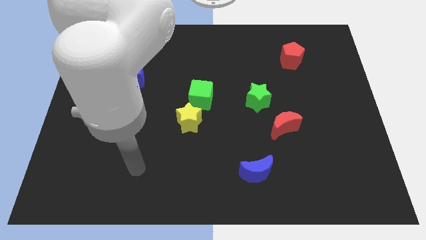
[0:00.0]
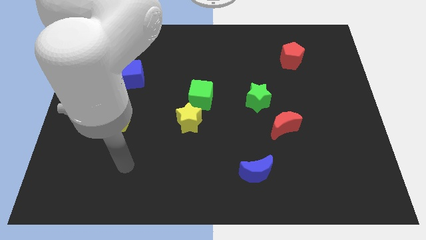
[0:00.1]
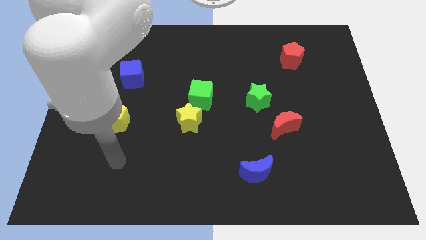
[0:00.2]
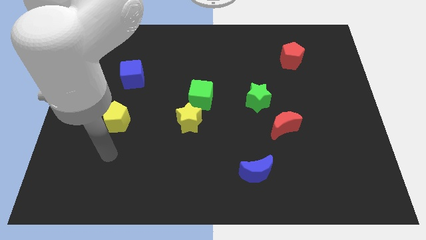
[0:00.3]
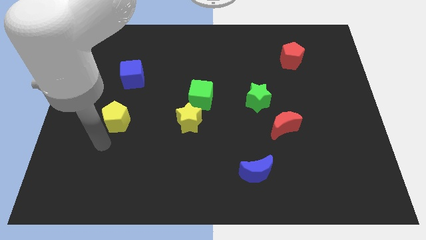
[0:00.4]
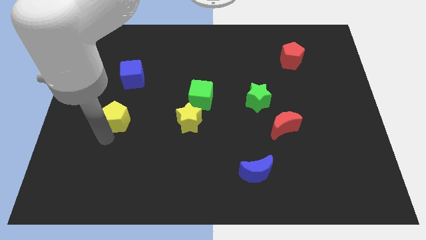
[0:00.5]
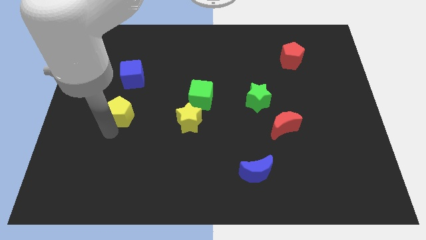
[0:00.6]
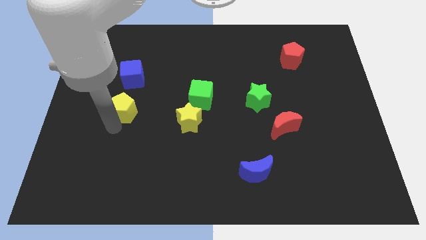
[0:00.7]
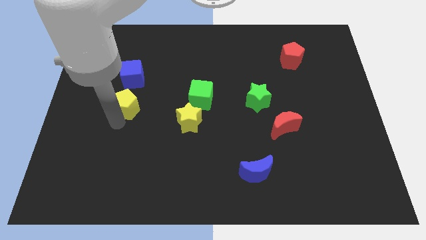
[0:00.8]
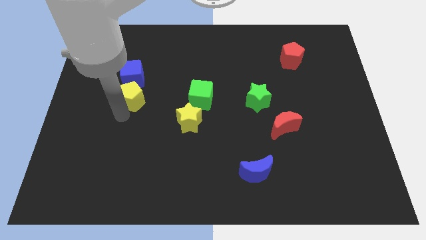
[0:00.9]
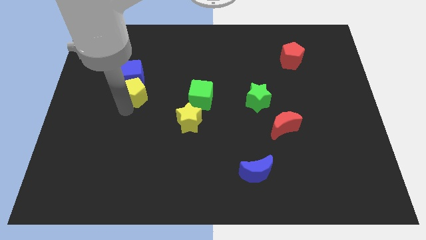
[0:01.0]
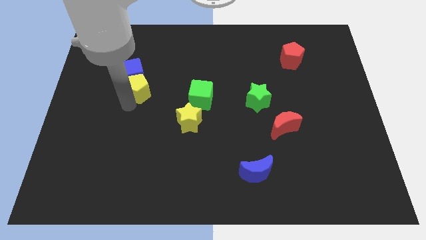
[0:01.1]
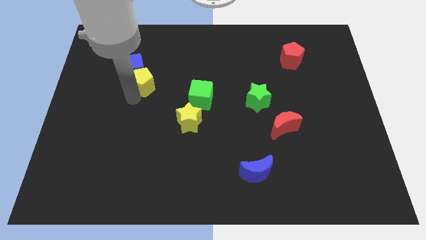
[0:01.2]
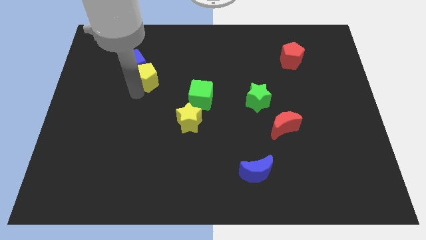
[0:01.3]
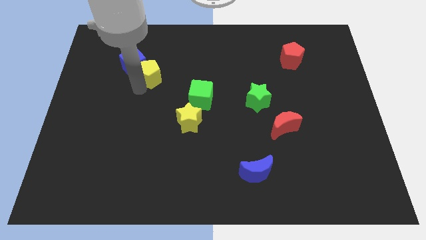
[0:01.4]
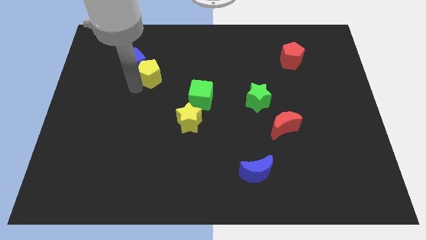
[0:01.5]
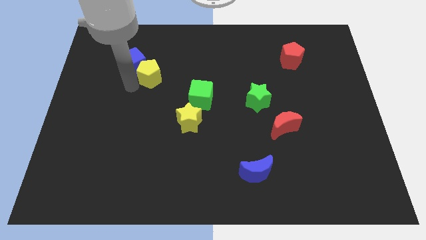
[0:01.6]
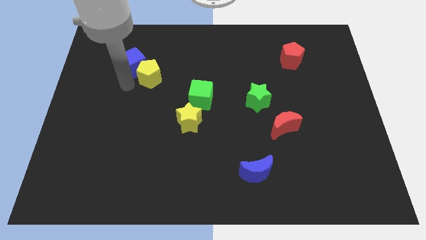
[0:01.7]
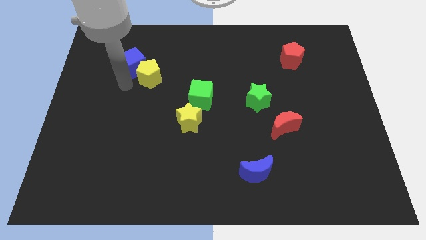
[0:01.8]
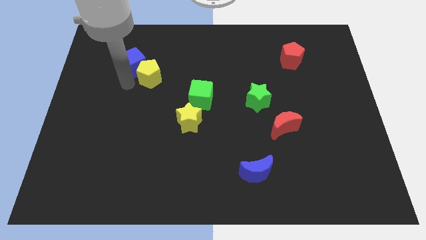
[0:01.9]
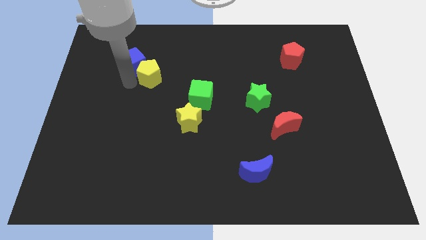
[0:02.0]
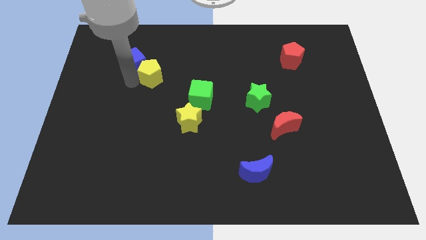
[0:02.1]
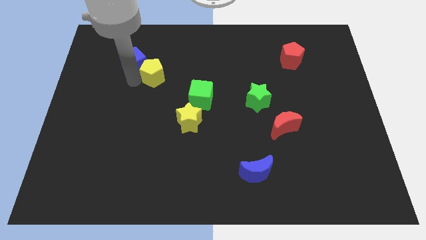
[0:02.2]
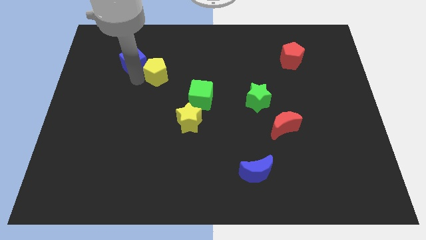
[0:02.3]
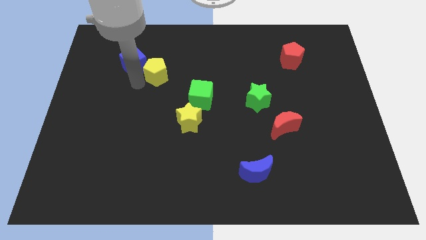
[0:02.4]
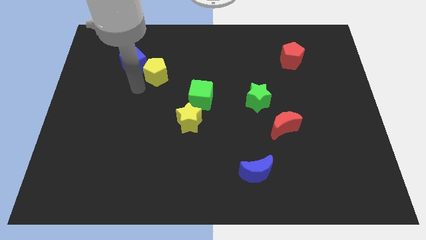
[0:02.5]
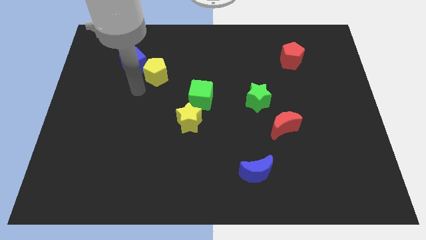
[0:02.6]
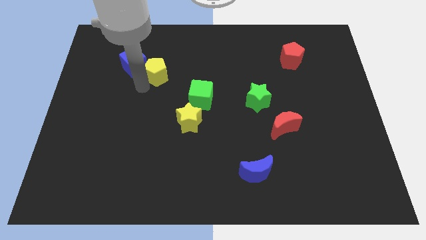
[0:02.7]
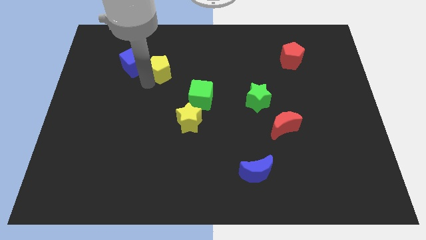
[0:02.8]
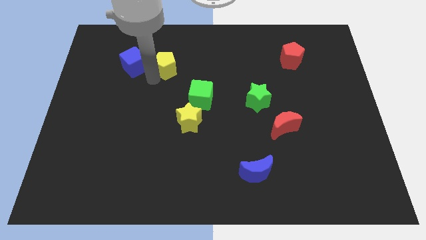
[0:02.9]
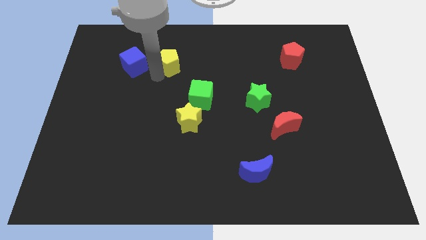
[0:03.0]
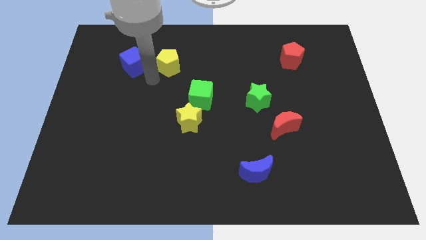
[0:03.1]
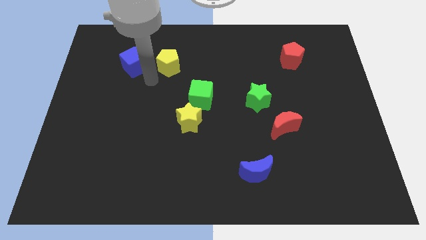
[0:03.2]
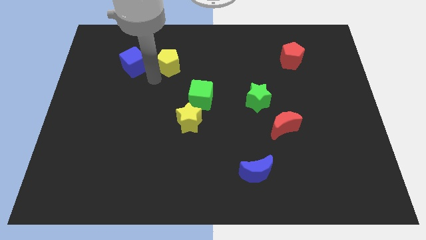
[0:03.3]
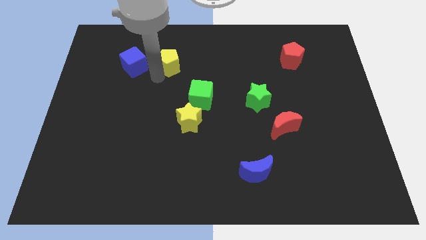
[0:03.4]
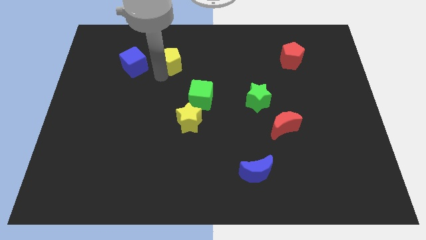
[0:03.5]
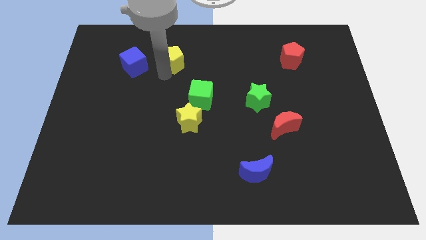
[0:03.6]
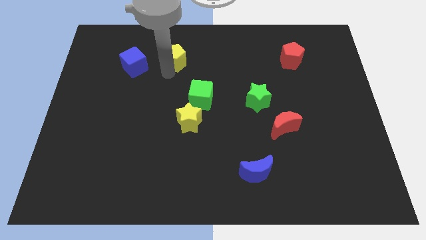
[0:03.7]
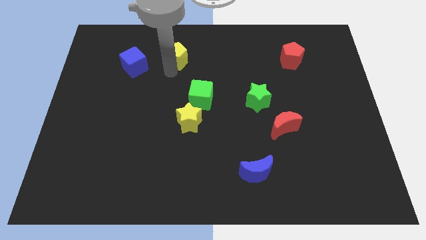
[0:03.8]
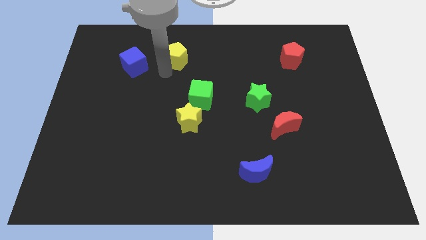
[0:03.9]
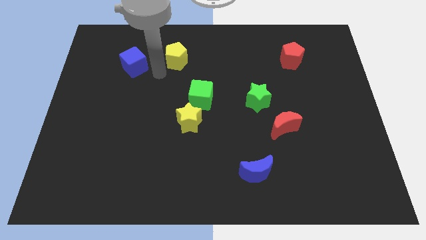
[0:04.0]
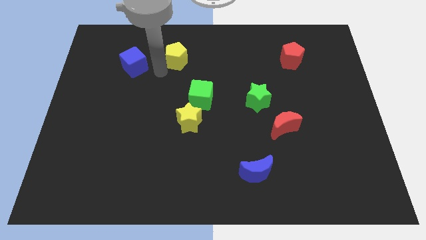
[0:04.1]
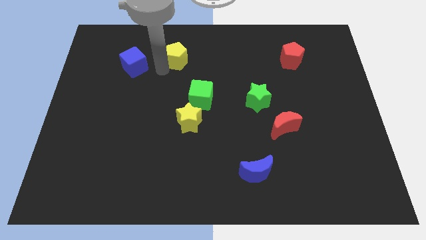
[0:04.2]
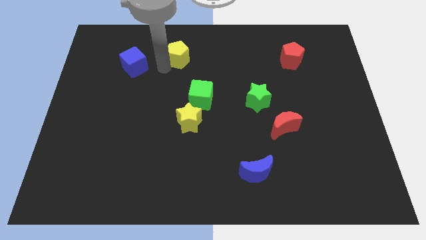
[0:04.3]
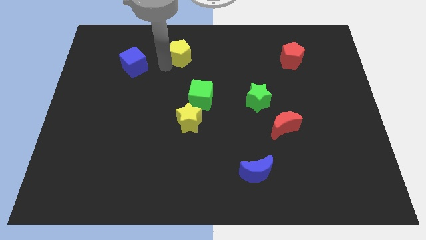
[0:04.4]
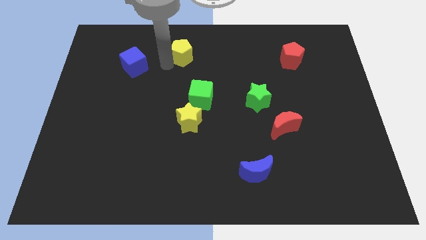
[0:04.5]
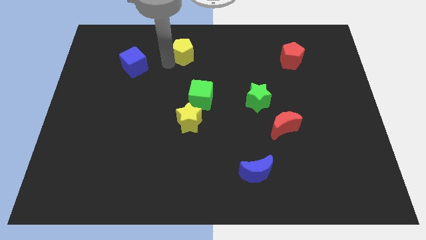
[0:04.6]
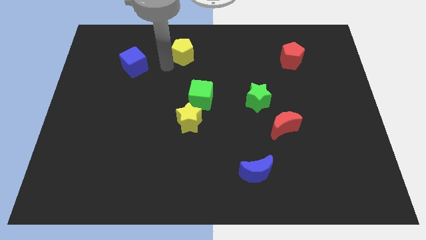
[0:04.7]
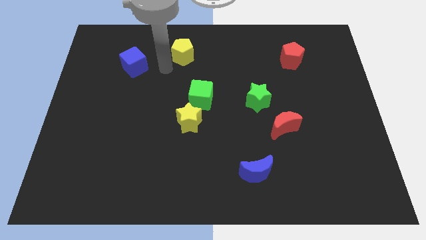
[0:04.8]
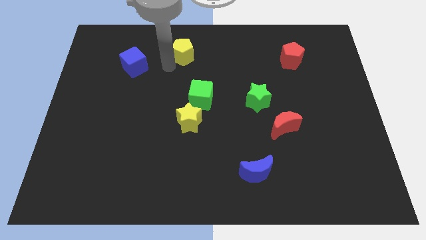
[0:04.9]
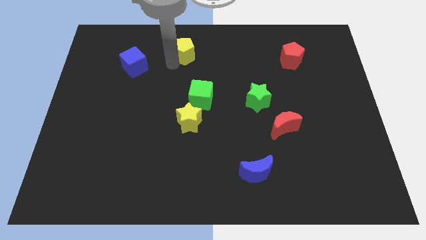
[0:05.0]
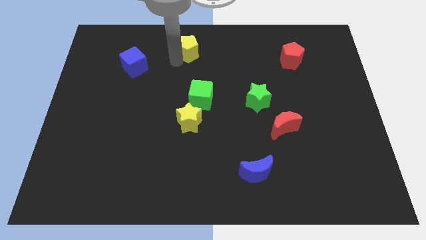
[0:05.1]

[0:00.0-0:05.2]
put the yellow pentagon to the top

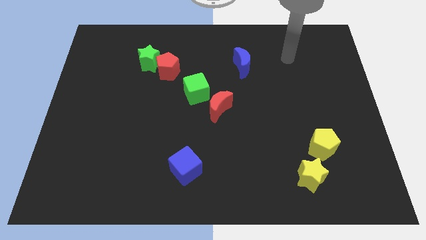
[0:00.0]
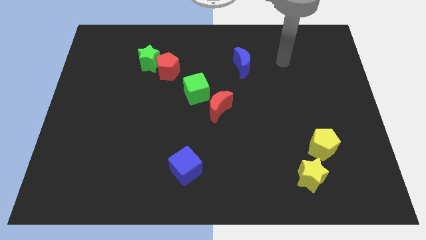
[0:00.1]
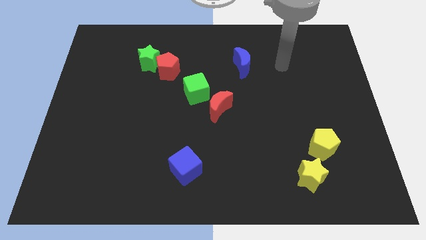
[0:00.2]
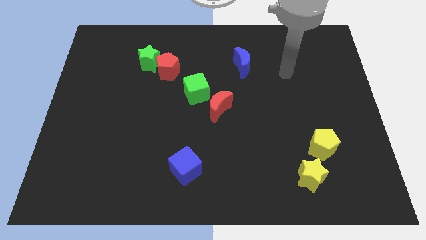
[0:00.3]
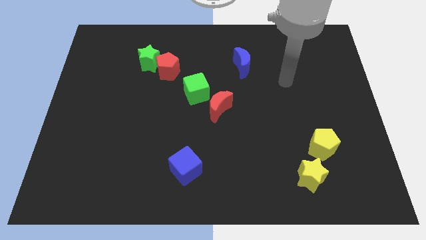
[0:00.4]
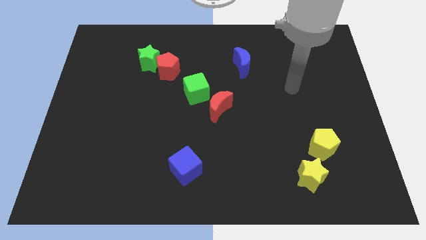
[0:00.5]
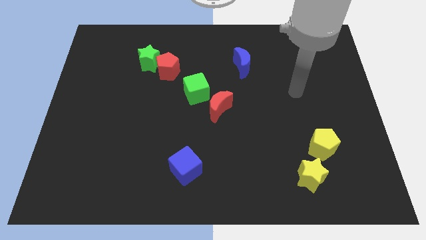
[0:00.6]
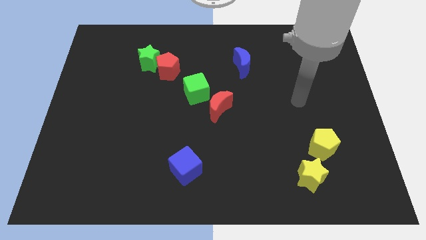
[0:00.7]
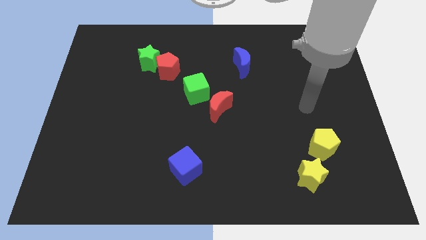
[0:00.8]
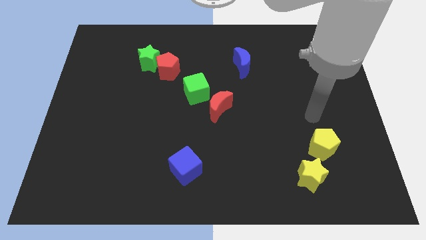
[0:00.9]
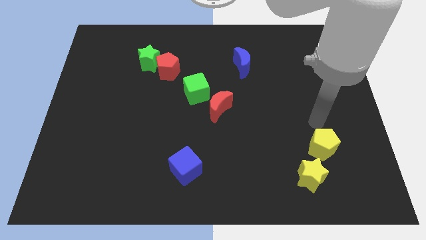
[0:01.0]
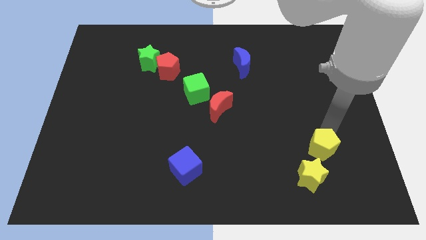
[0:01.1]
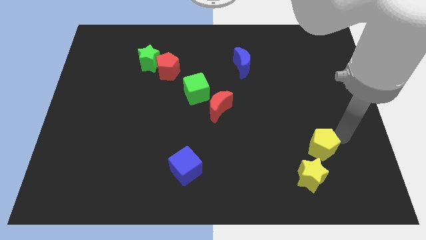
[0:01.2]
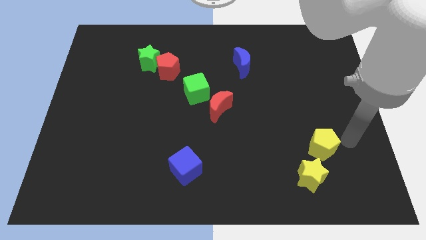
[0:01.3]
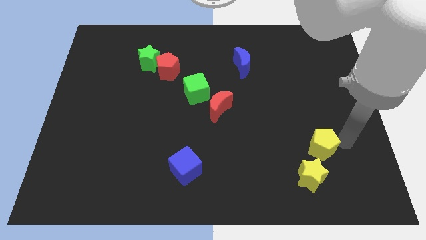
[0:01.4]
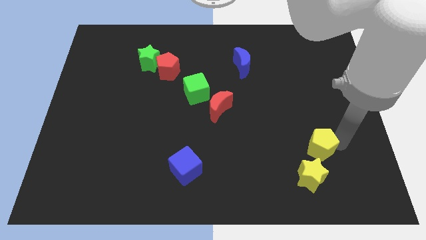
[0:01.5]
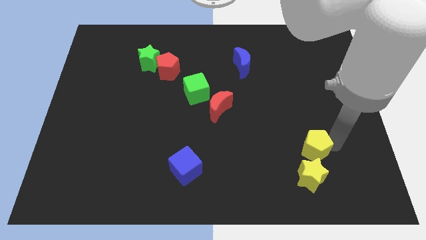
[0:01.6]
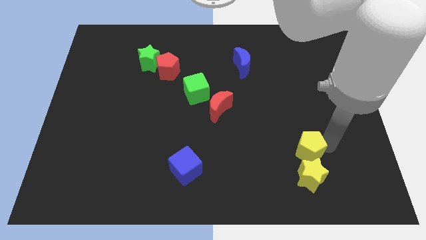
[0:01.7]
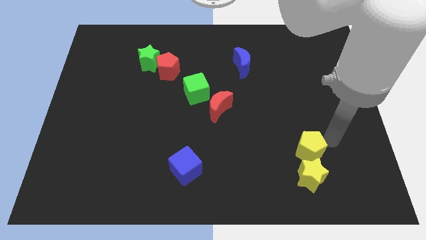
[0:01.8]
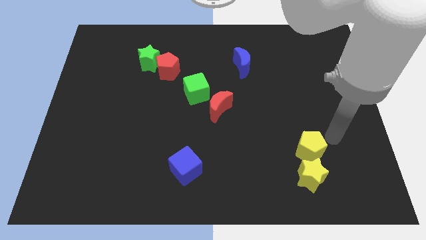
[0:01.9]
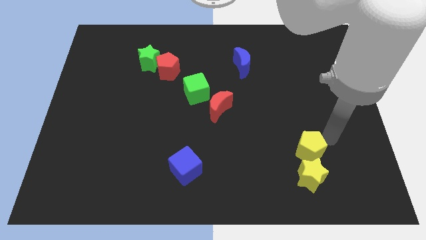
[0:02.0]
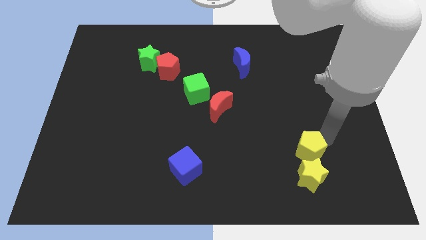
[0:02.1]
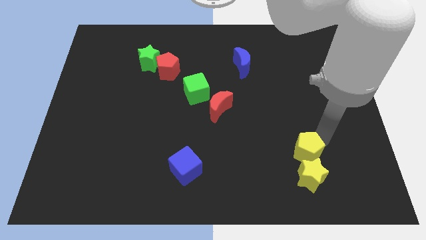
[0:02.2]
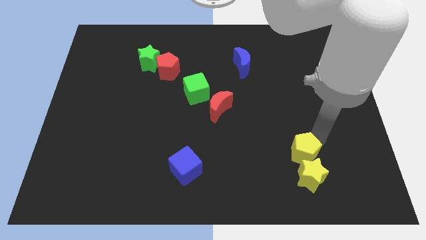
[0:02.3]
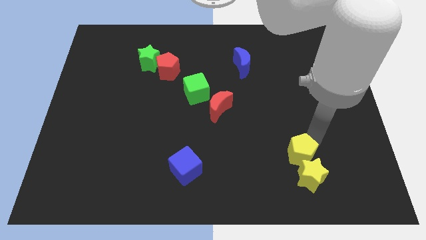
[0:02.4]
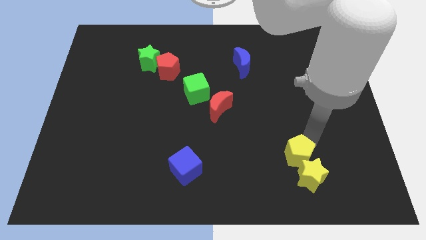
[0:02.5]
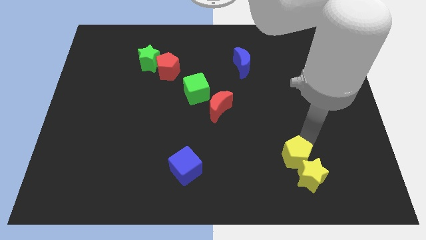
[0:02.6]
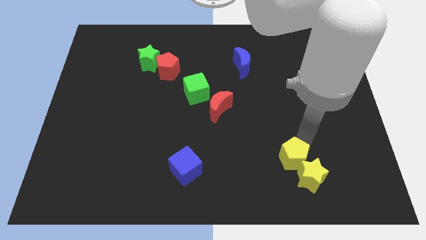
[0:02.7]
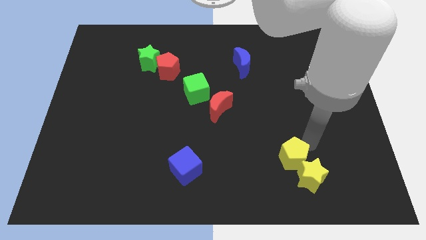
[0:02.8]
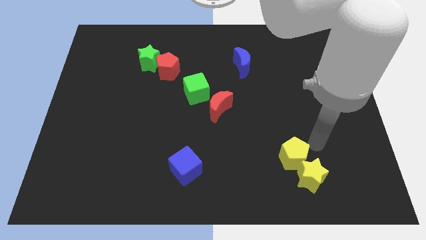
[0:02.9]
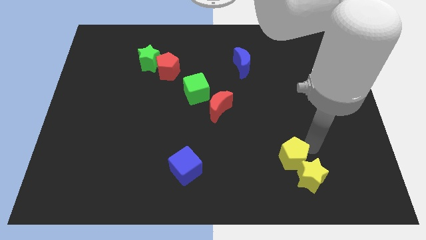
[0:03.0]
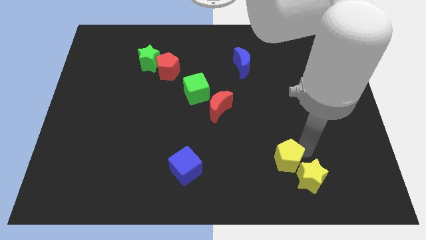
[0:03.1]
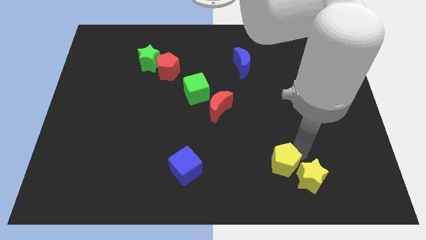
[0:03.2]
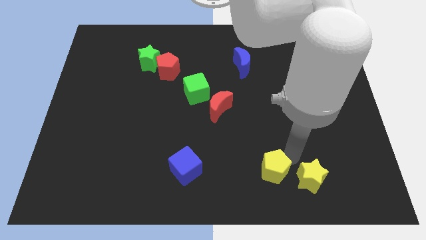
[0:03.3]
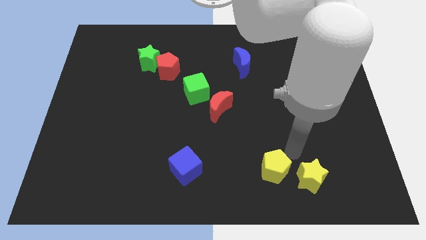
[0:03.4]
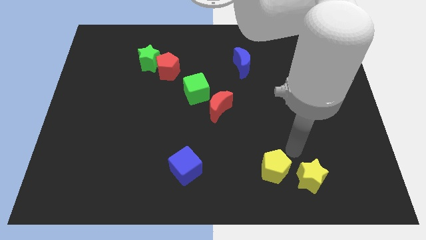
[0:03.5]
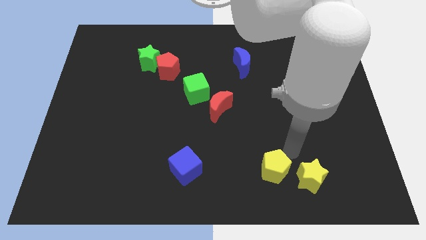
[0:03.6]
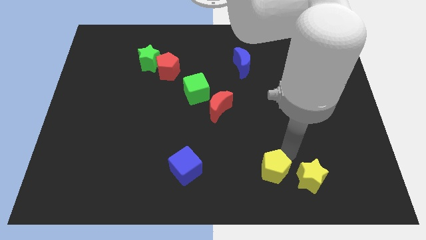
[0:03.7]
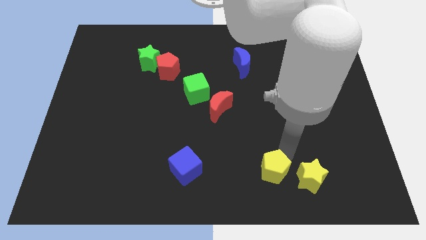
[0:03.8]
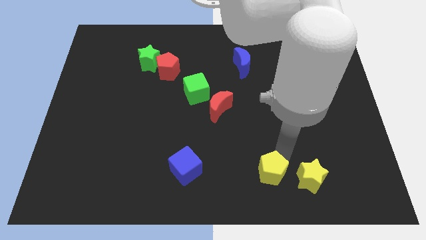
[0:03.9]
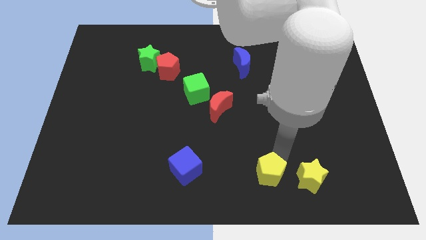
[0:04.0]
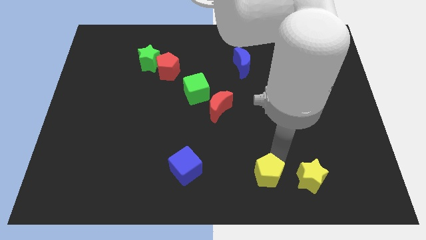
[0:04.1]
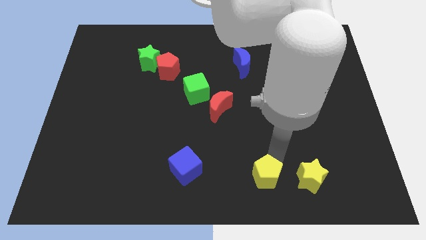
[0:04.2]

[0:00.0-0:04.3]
push the yellow pentagon to the bottom side
